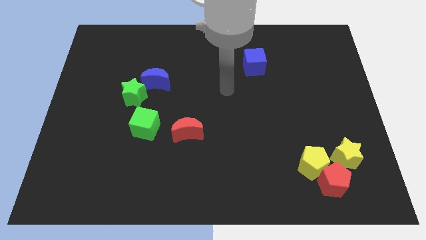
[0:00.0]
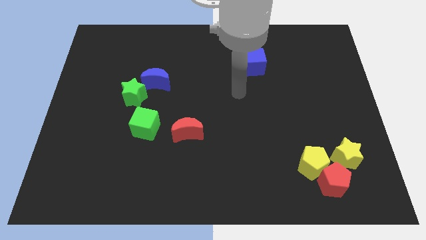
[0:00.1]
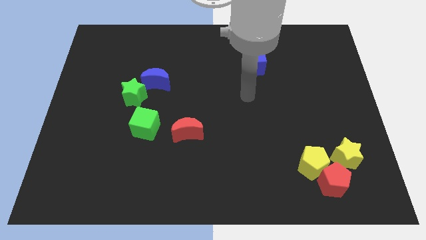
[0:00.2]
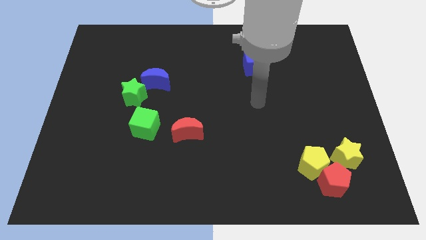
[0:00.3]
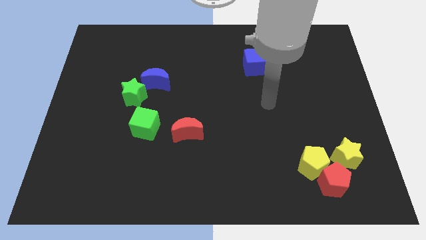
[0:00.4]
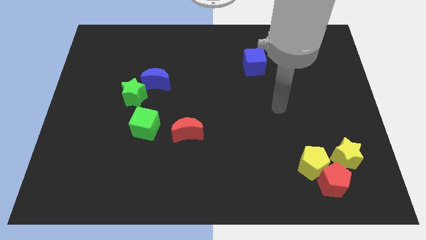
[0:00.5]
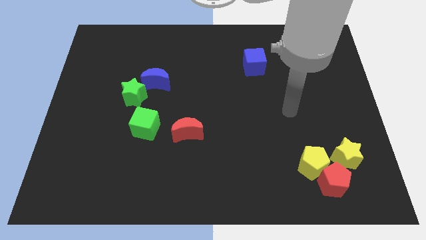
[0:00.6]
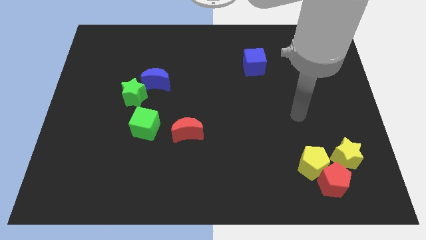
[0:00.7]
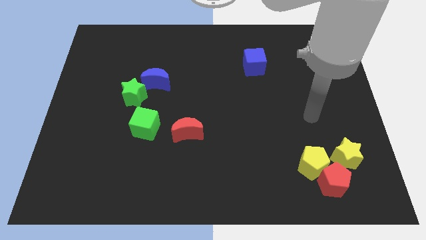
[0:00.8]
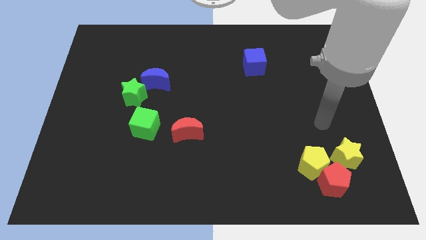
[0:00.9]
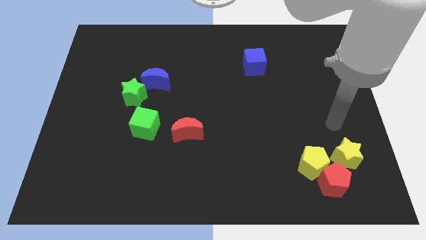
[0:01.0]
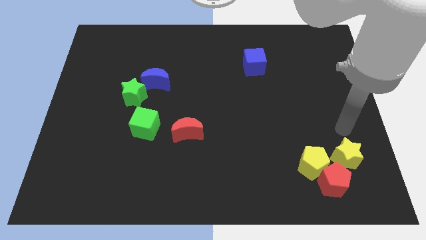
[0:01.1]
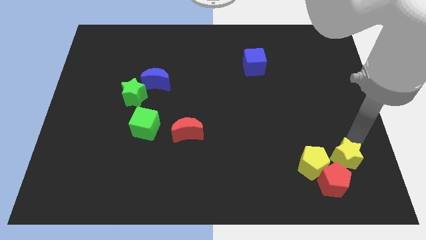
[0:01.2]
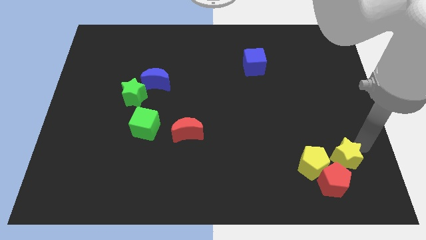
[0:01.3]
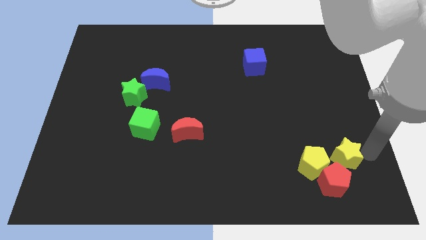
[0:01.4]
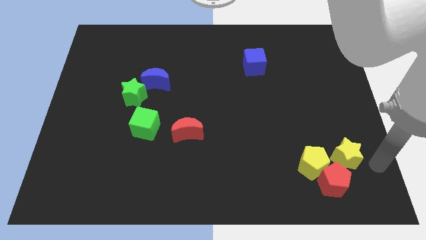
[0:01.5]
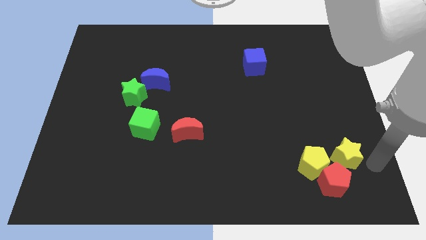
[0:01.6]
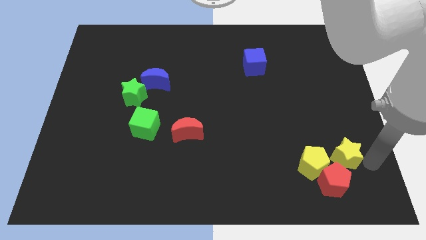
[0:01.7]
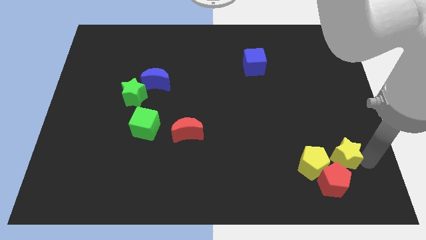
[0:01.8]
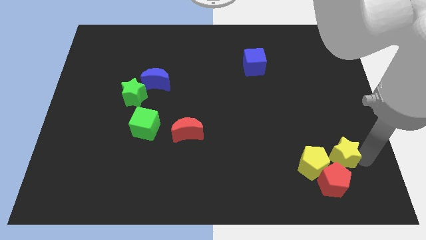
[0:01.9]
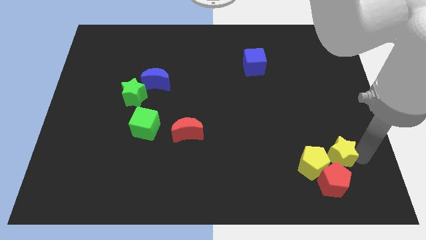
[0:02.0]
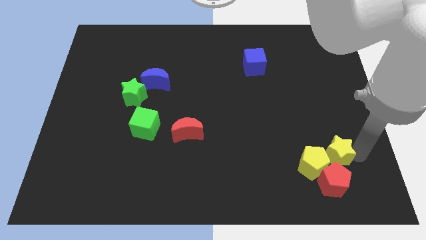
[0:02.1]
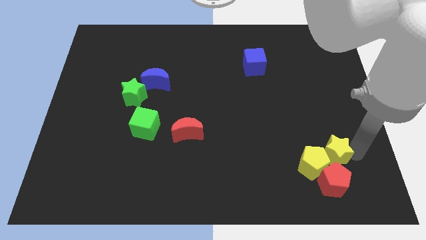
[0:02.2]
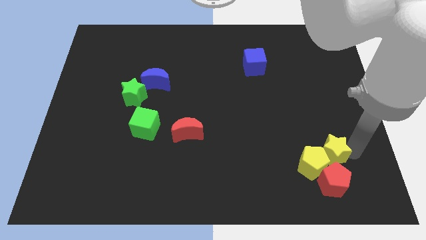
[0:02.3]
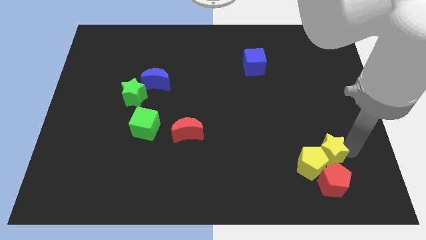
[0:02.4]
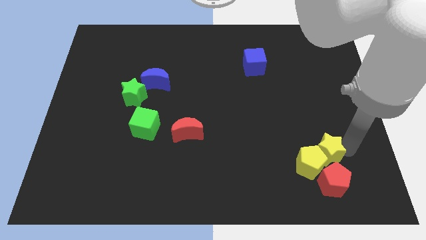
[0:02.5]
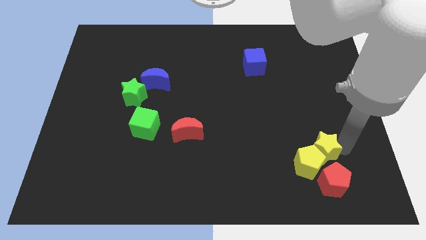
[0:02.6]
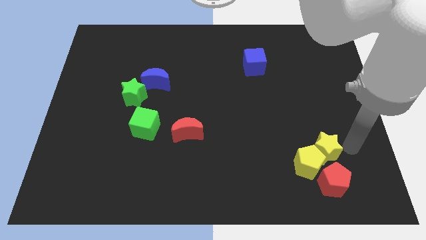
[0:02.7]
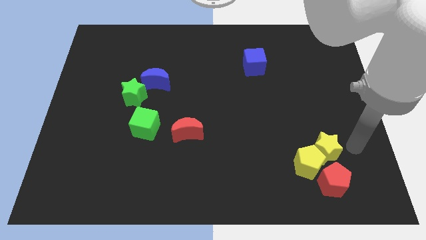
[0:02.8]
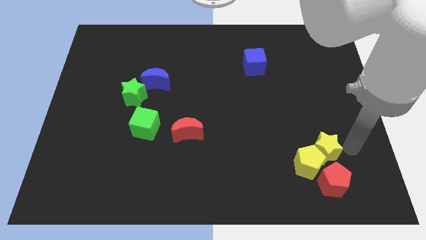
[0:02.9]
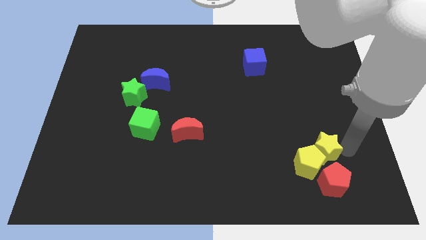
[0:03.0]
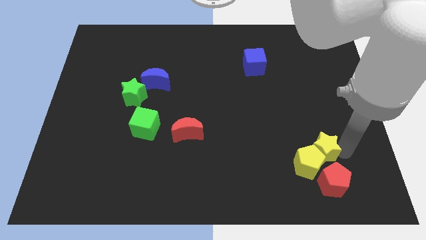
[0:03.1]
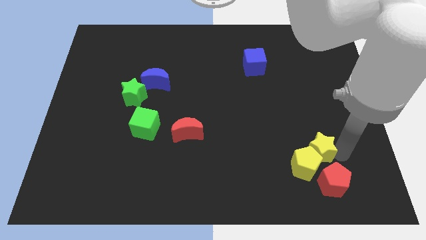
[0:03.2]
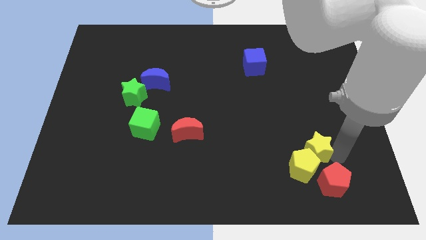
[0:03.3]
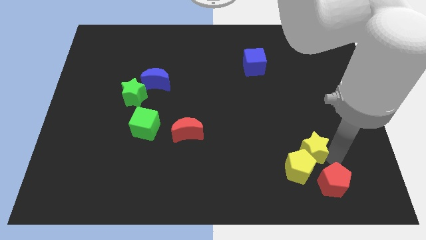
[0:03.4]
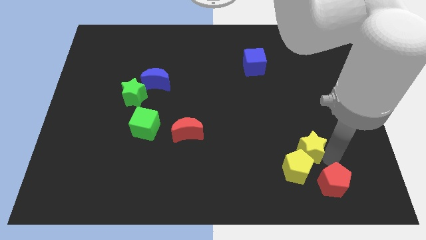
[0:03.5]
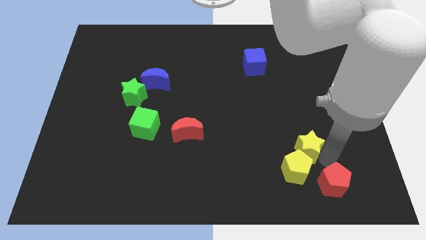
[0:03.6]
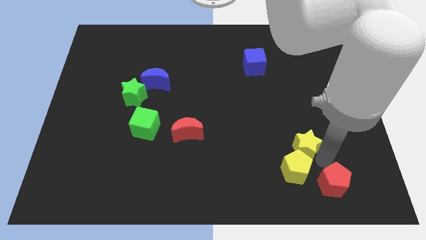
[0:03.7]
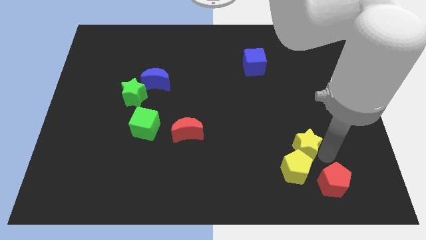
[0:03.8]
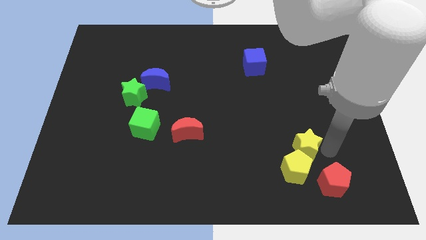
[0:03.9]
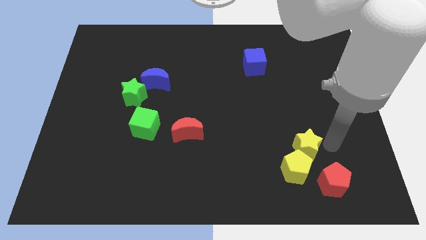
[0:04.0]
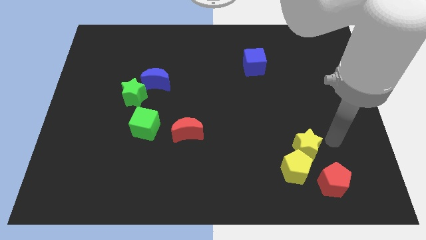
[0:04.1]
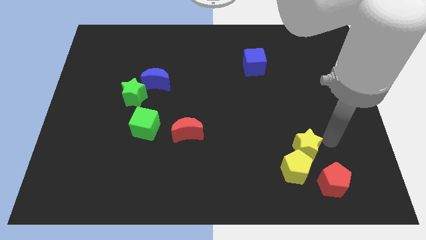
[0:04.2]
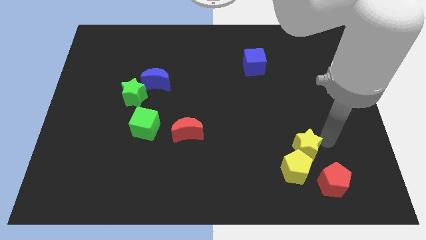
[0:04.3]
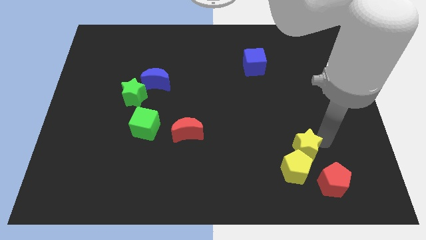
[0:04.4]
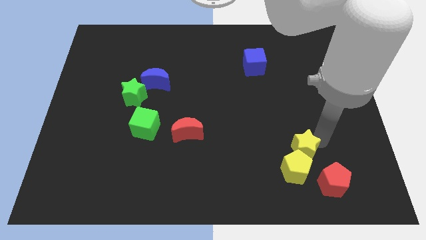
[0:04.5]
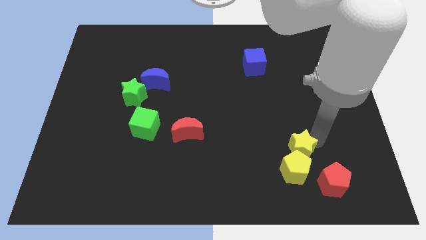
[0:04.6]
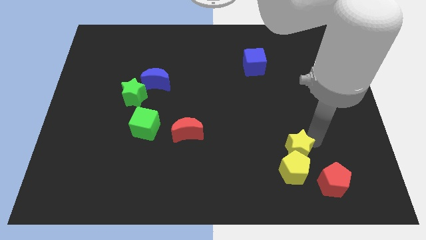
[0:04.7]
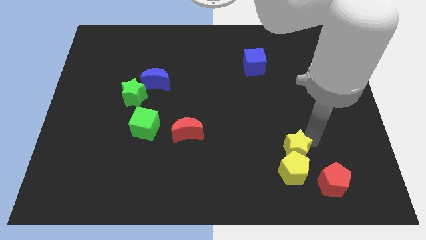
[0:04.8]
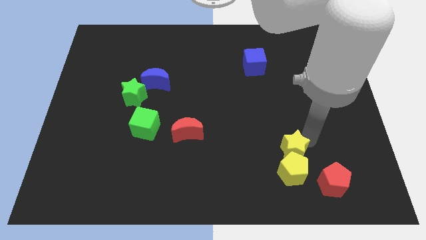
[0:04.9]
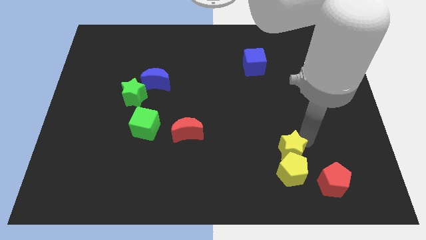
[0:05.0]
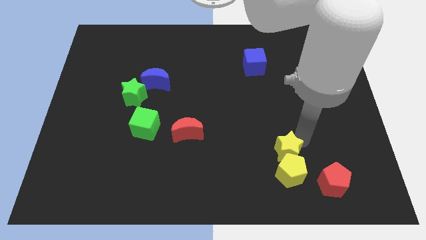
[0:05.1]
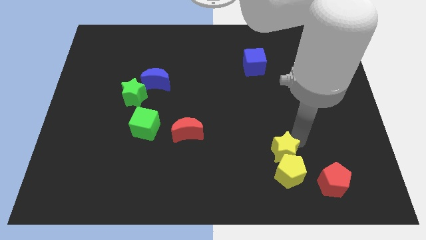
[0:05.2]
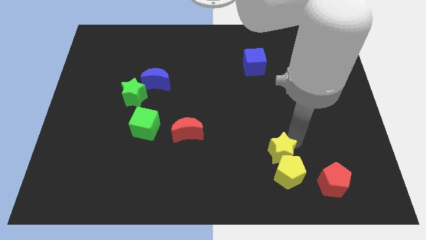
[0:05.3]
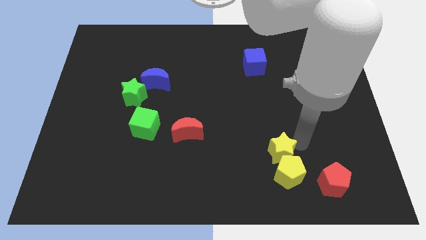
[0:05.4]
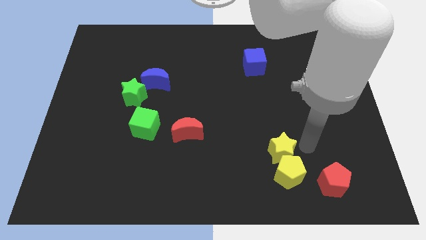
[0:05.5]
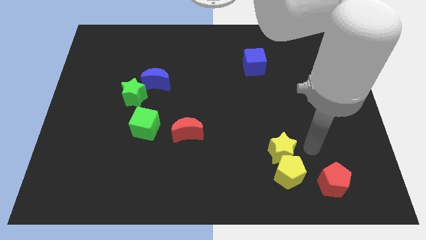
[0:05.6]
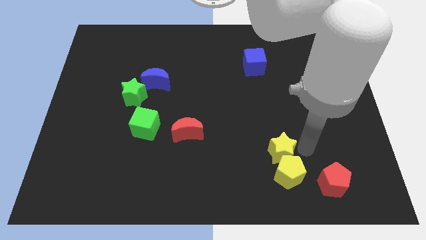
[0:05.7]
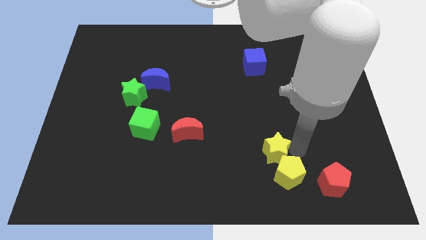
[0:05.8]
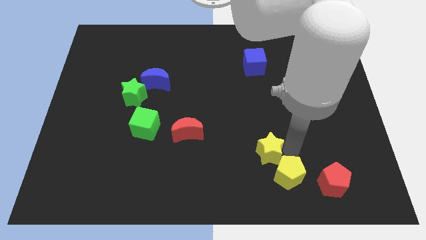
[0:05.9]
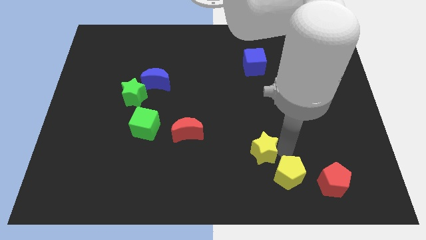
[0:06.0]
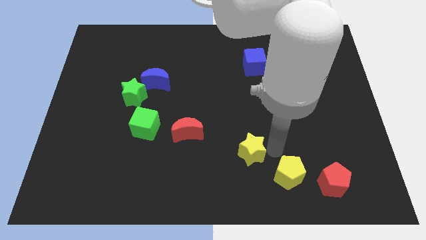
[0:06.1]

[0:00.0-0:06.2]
slide the yellow star to the left

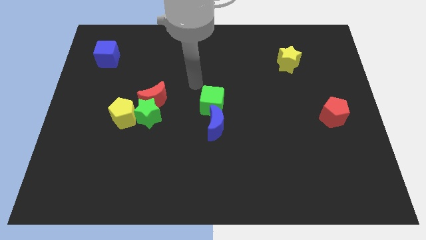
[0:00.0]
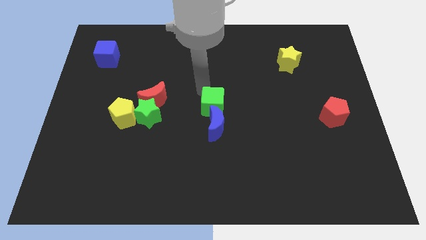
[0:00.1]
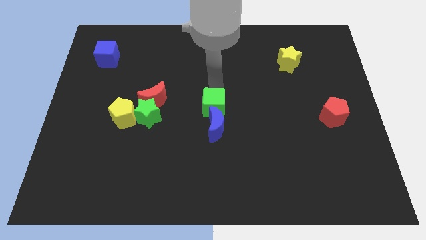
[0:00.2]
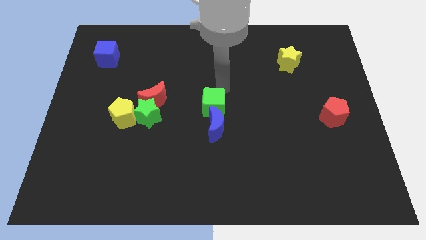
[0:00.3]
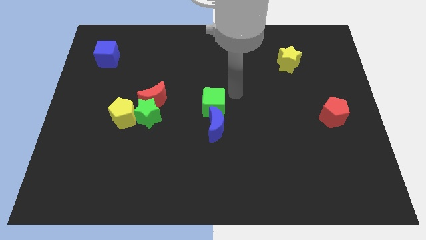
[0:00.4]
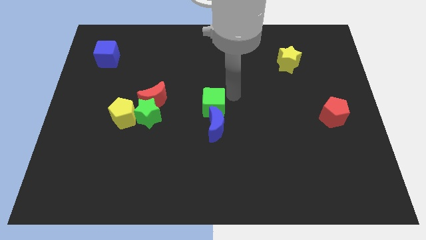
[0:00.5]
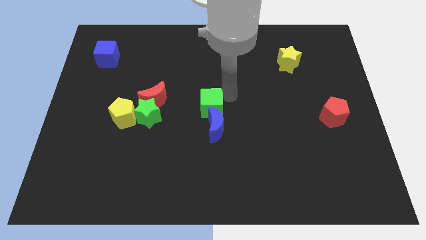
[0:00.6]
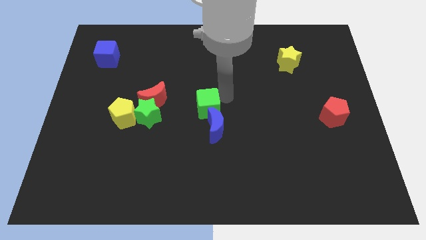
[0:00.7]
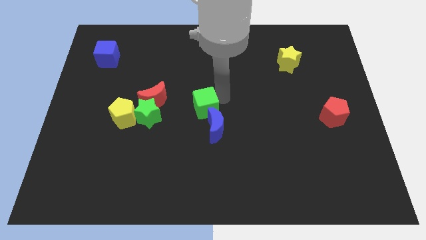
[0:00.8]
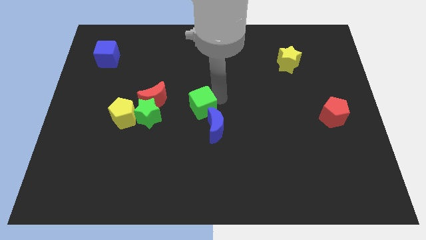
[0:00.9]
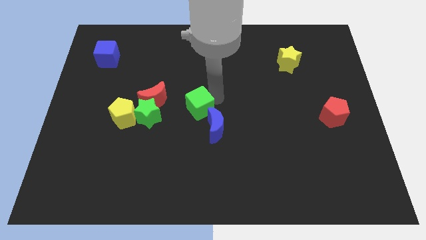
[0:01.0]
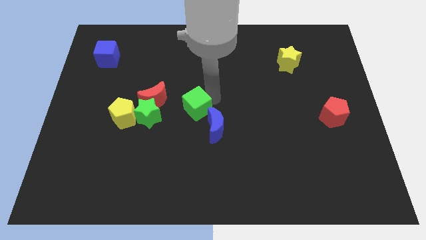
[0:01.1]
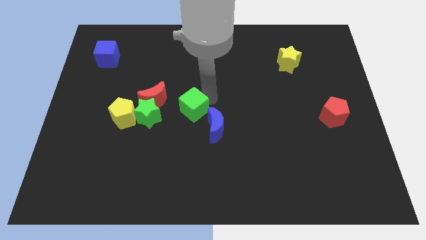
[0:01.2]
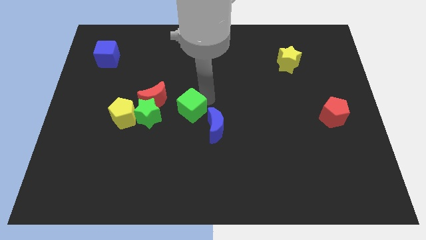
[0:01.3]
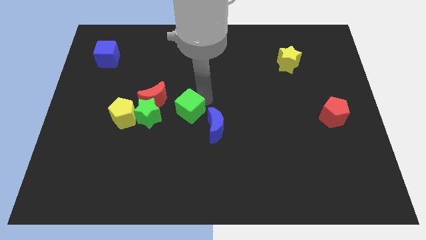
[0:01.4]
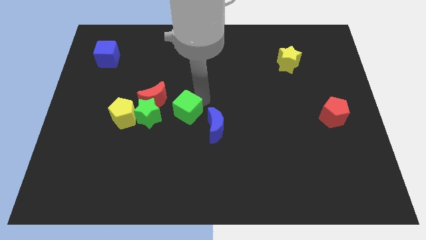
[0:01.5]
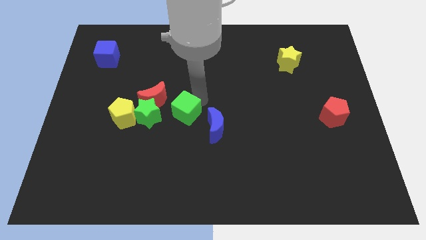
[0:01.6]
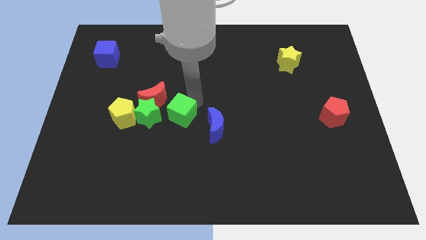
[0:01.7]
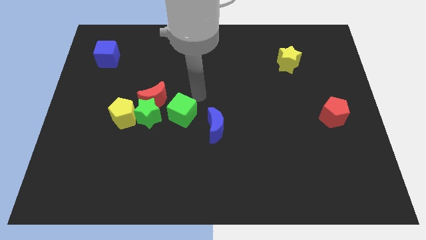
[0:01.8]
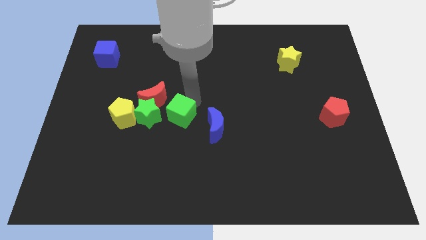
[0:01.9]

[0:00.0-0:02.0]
move the green cube down and left a little bit
